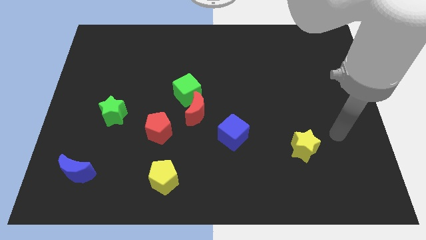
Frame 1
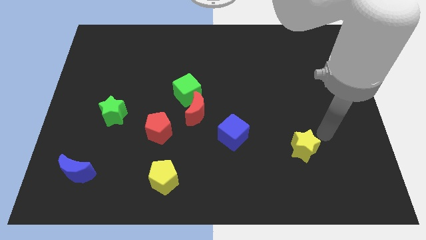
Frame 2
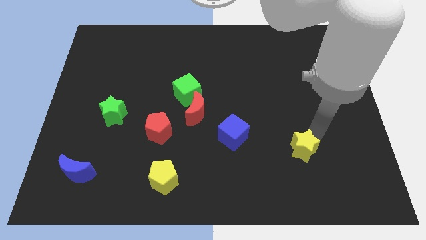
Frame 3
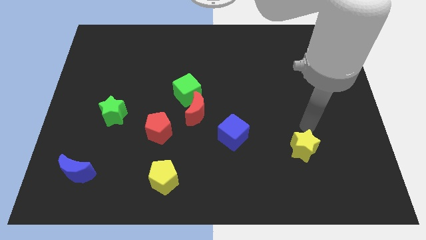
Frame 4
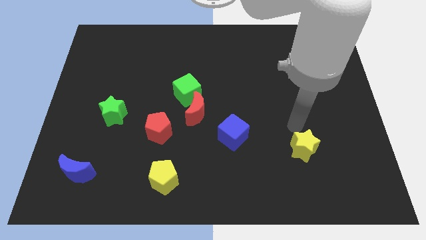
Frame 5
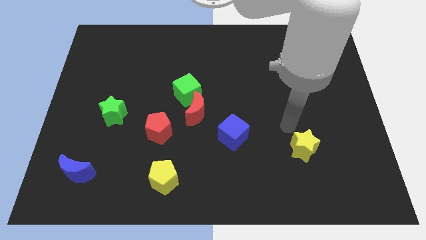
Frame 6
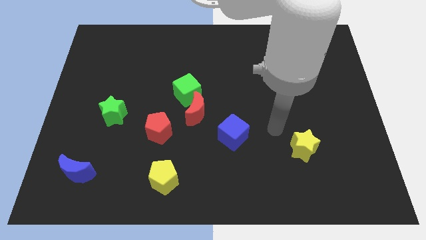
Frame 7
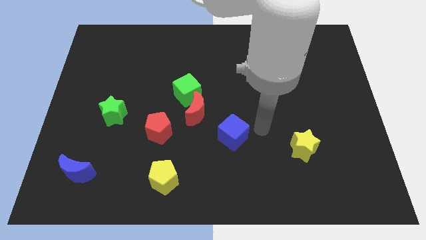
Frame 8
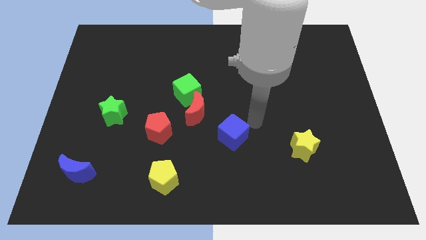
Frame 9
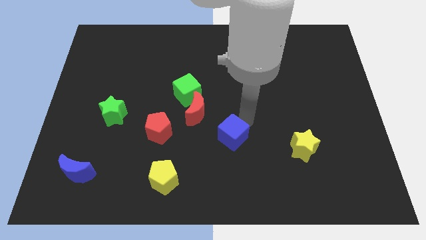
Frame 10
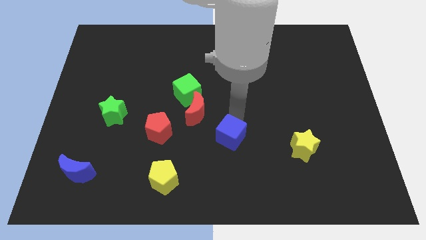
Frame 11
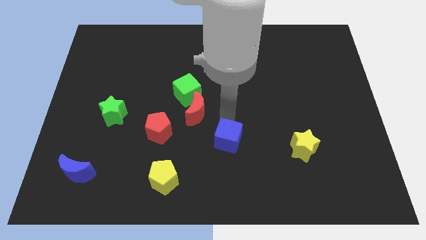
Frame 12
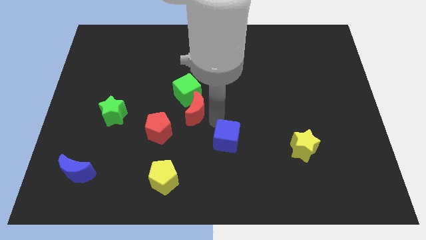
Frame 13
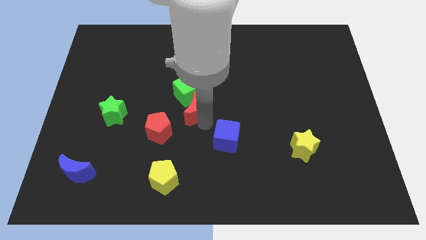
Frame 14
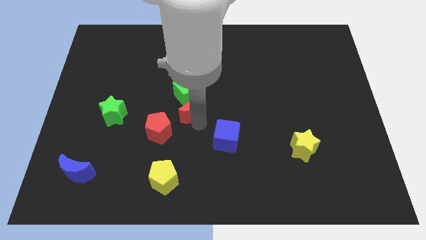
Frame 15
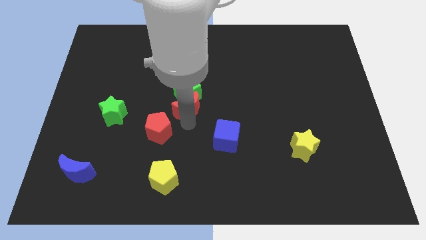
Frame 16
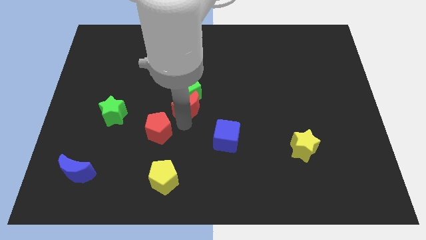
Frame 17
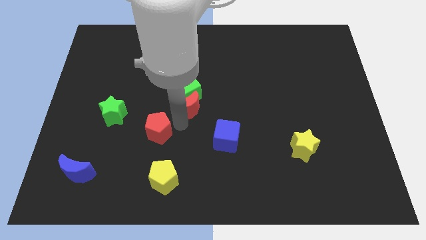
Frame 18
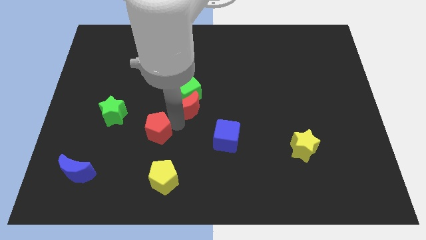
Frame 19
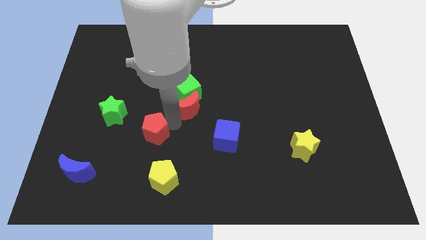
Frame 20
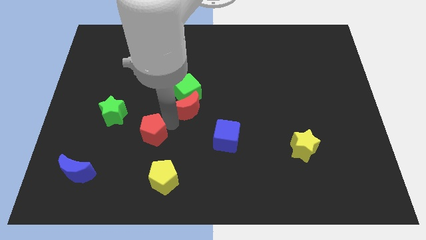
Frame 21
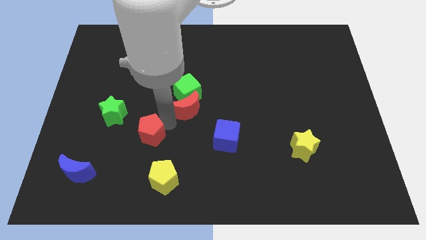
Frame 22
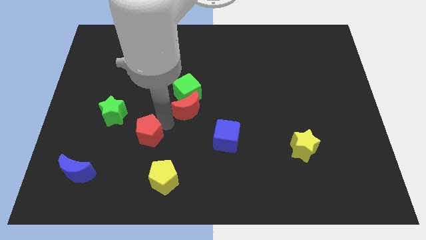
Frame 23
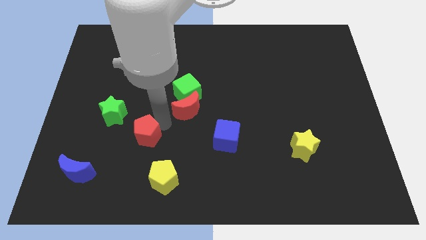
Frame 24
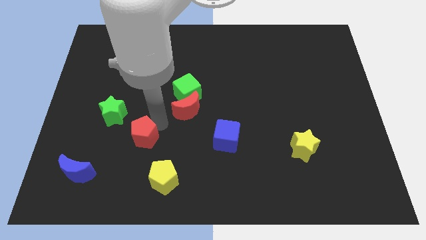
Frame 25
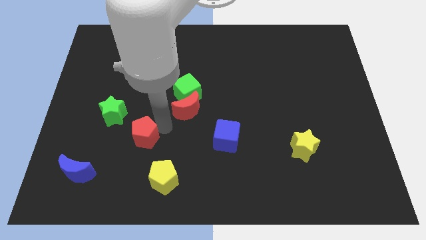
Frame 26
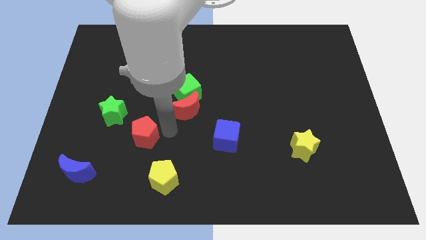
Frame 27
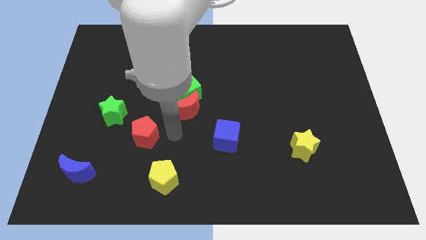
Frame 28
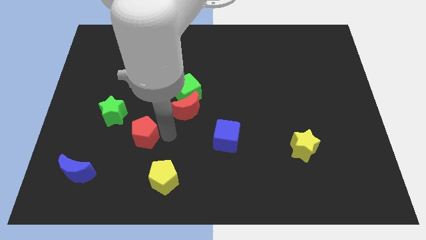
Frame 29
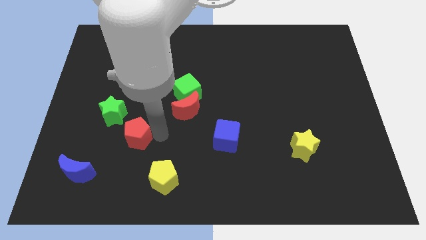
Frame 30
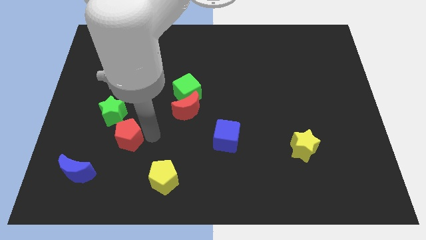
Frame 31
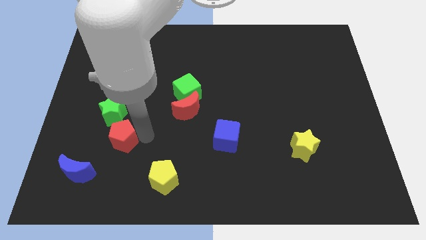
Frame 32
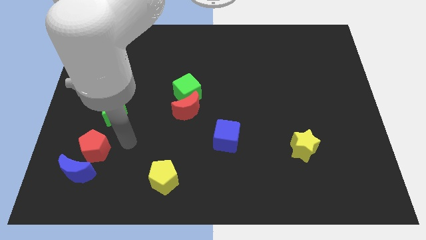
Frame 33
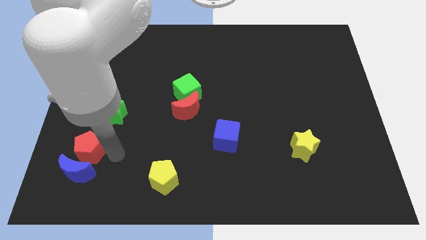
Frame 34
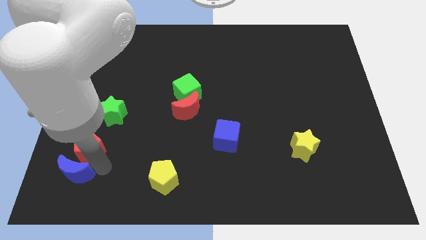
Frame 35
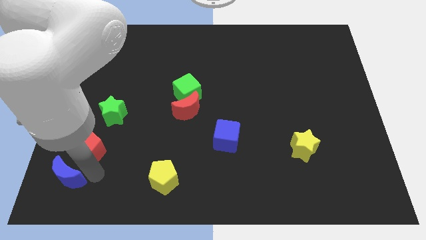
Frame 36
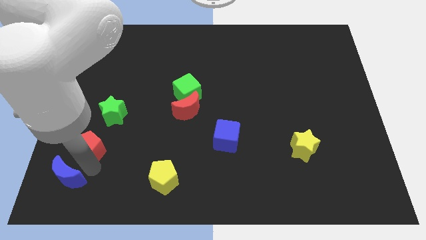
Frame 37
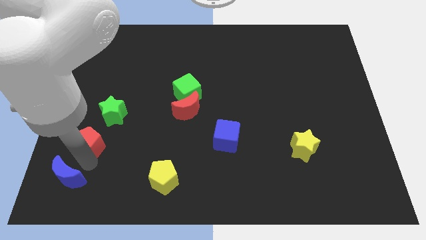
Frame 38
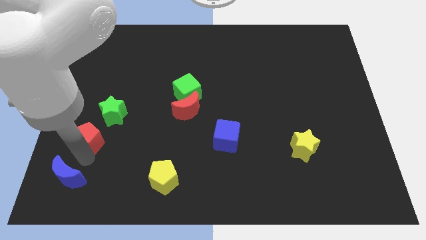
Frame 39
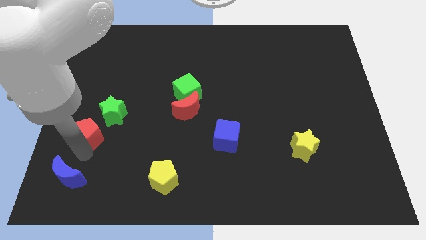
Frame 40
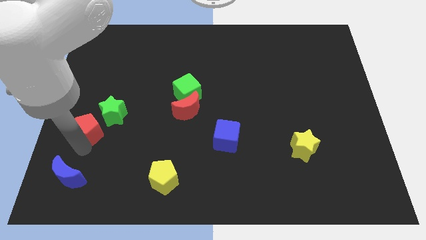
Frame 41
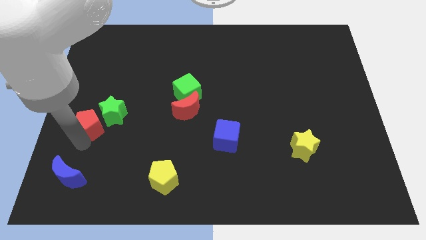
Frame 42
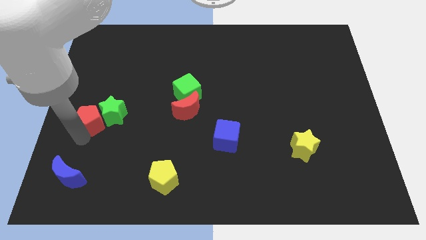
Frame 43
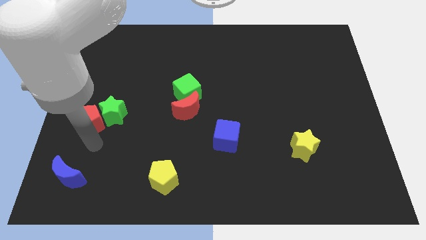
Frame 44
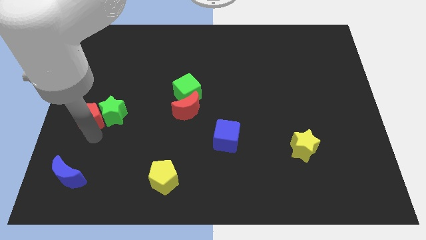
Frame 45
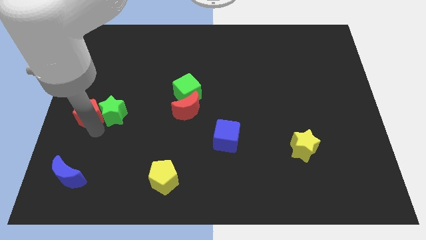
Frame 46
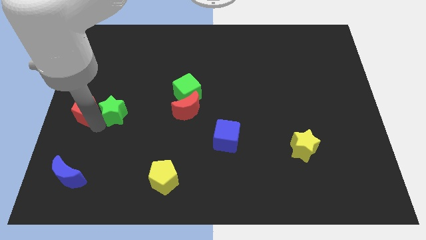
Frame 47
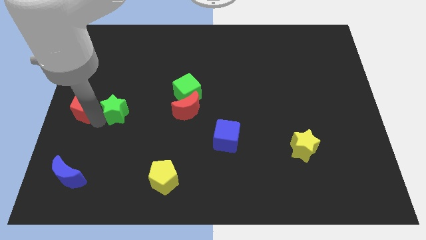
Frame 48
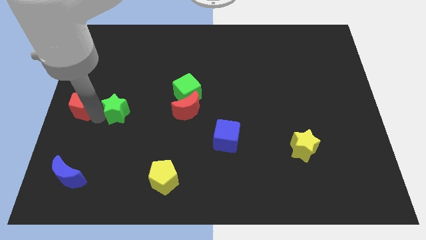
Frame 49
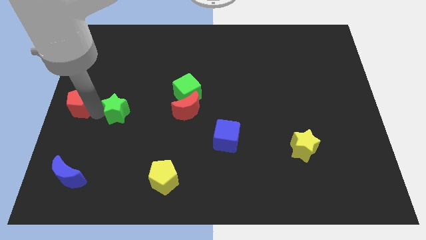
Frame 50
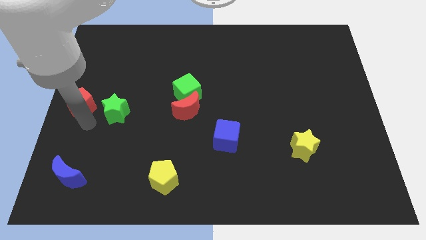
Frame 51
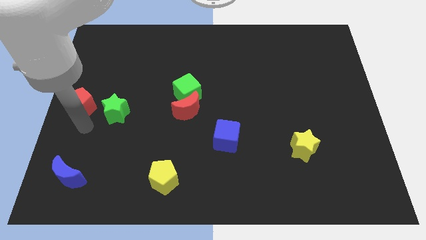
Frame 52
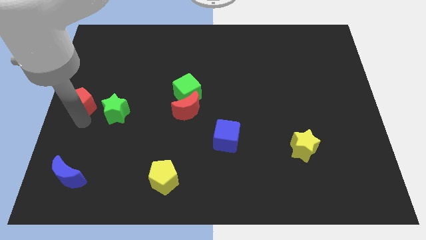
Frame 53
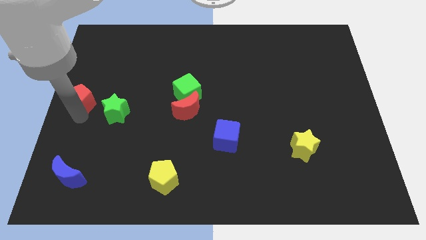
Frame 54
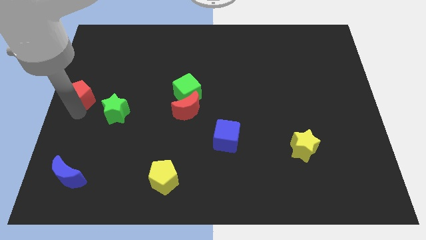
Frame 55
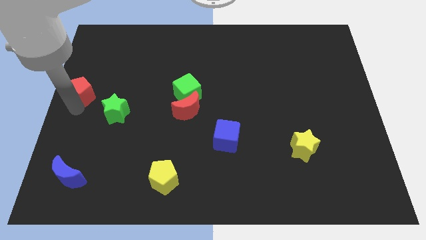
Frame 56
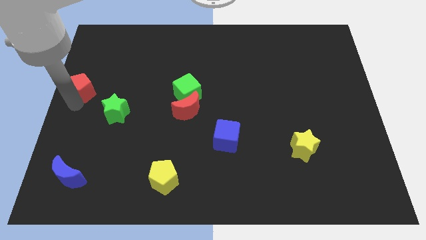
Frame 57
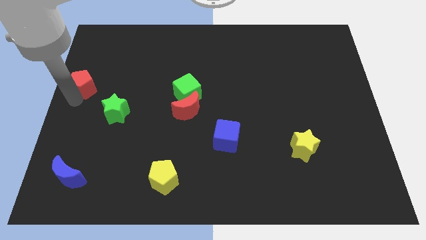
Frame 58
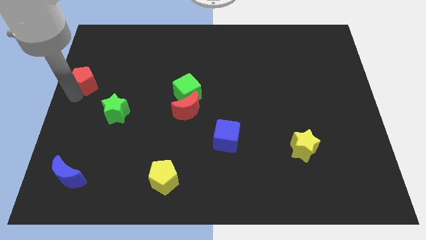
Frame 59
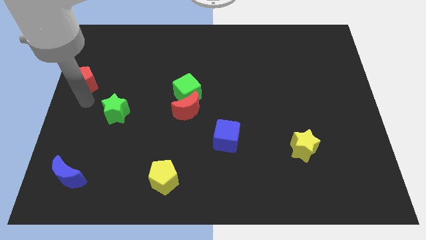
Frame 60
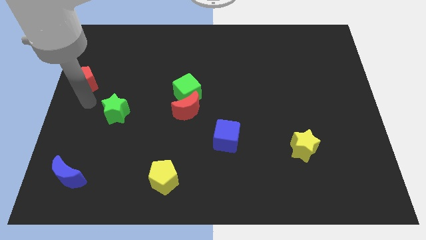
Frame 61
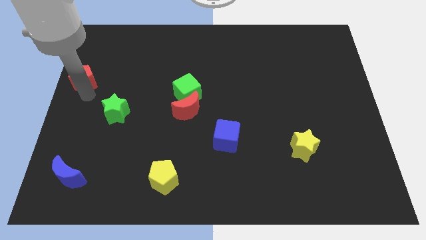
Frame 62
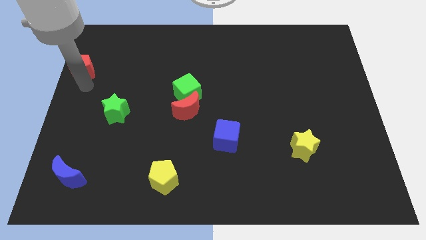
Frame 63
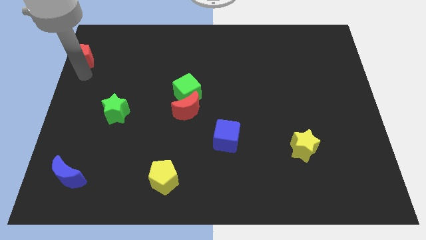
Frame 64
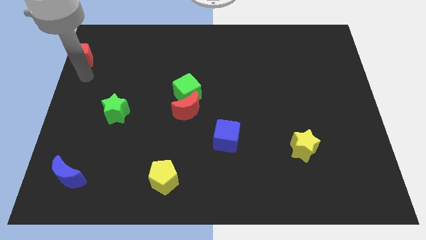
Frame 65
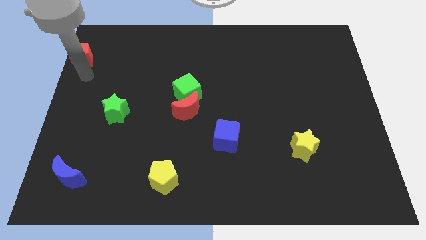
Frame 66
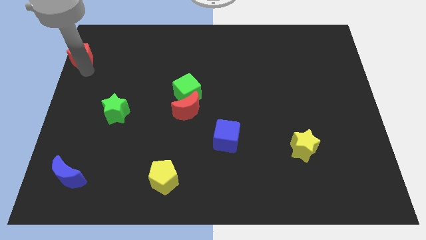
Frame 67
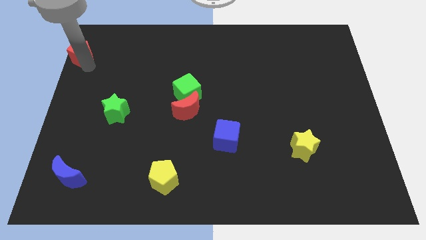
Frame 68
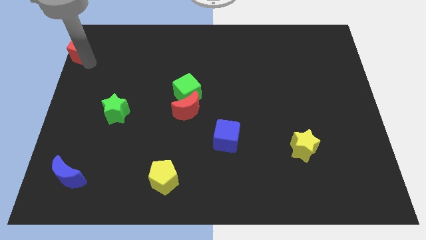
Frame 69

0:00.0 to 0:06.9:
move the red pentagon to the top left
